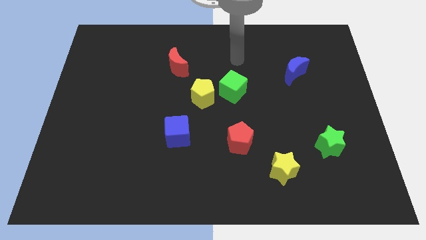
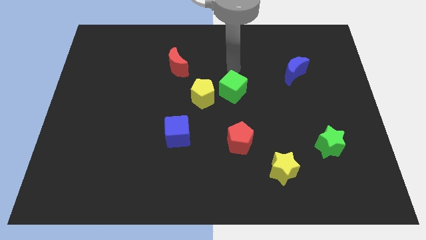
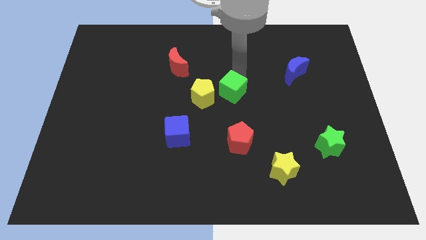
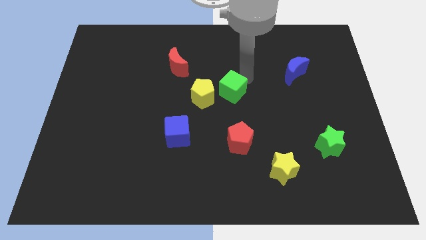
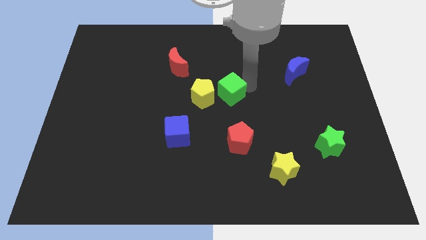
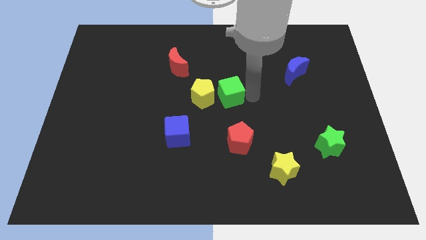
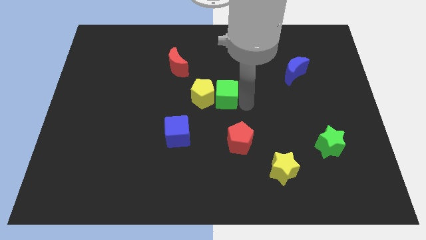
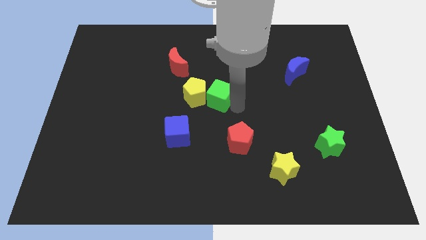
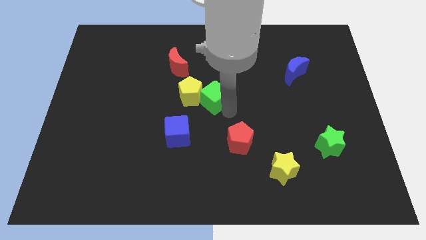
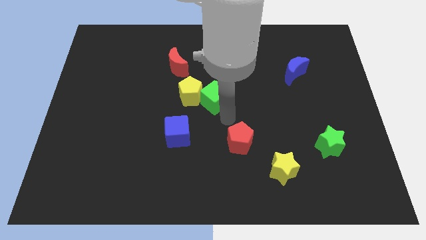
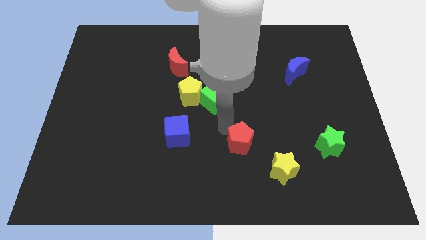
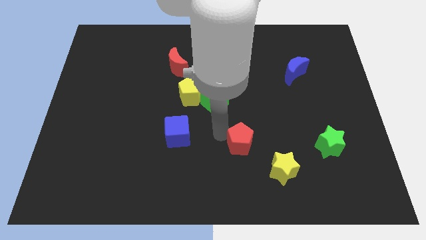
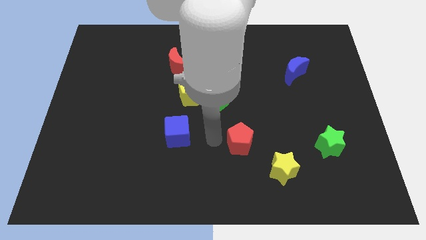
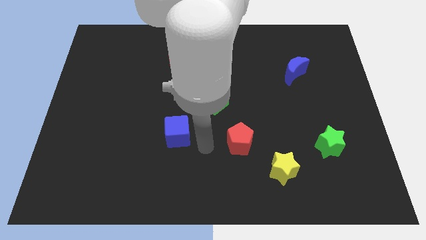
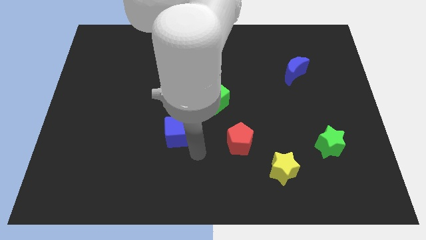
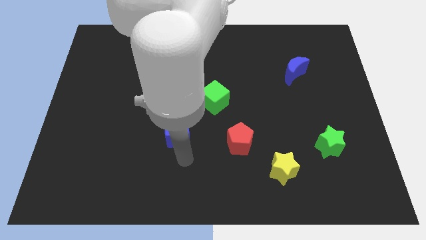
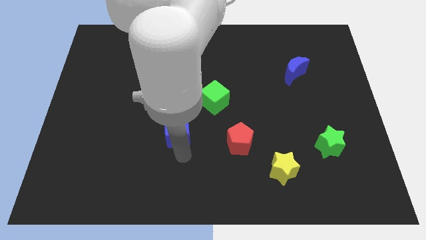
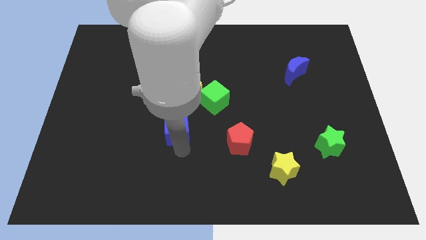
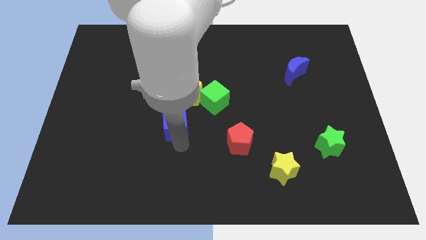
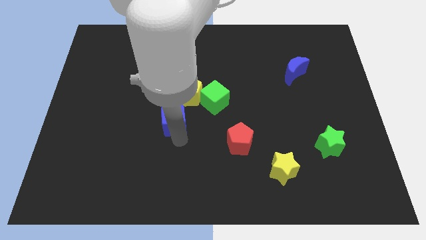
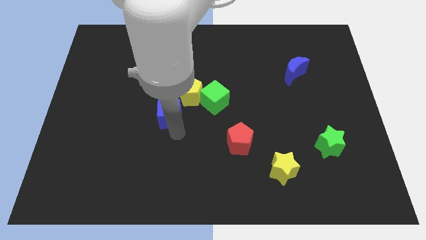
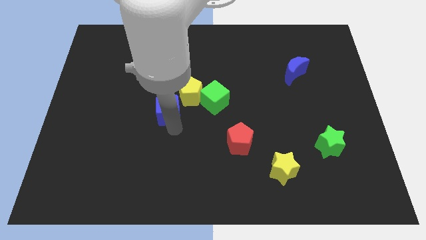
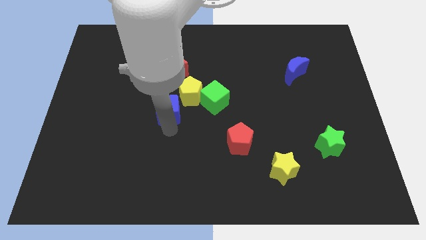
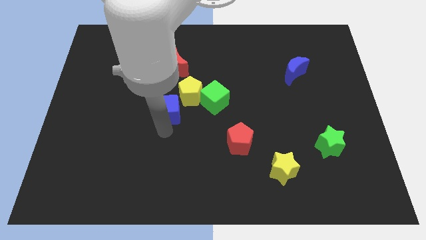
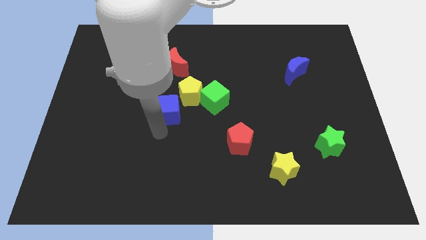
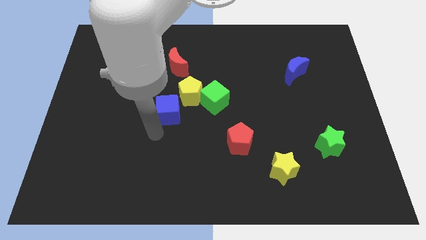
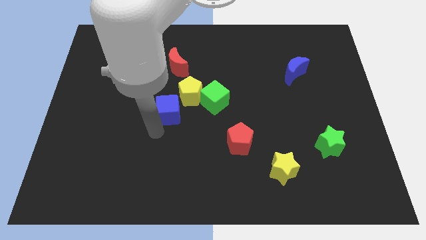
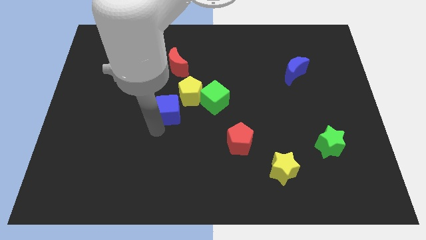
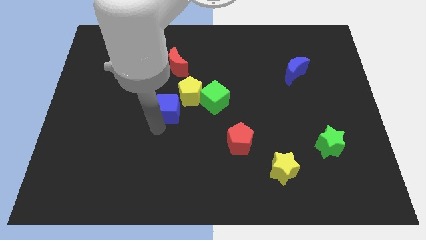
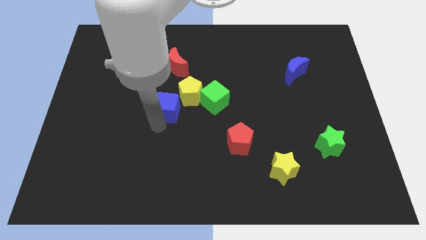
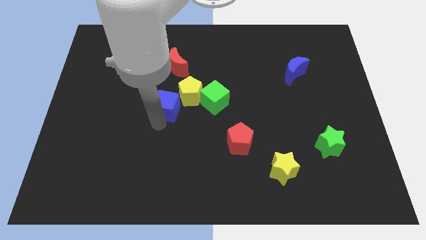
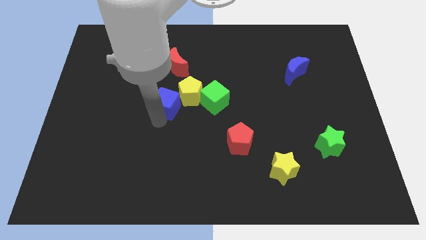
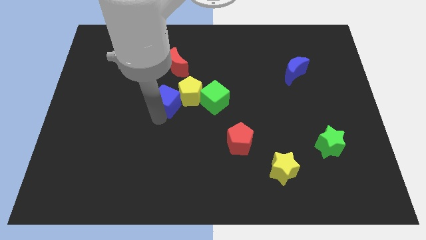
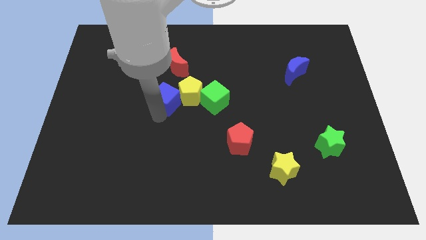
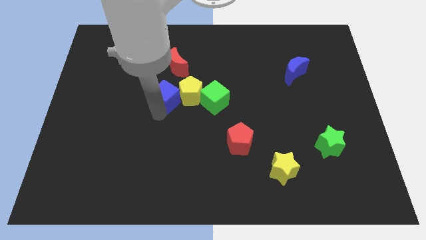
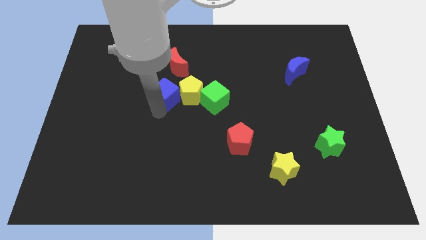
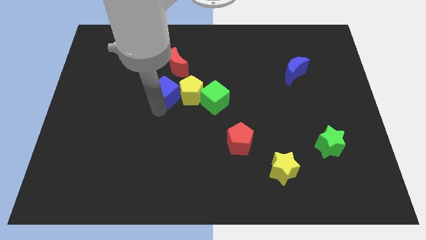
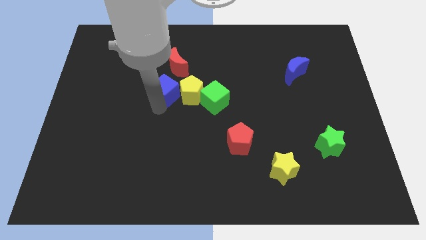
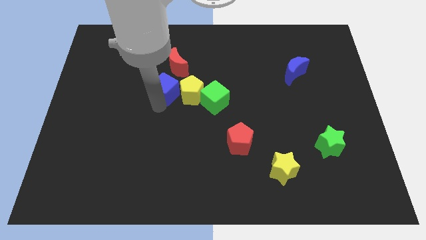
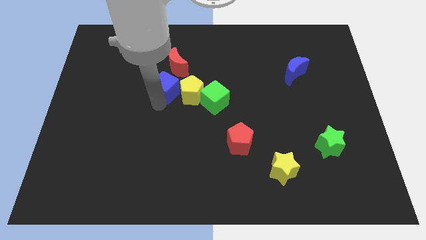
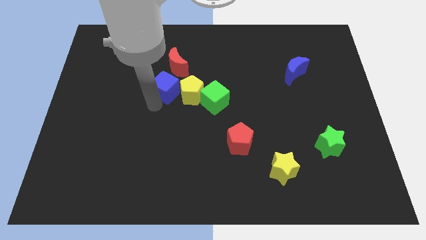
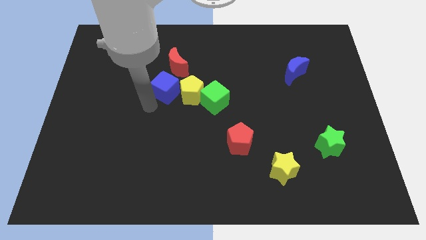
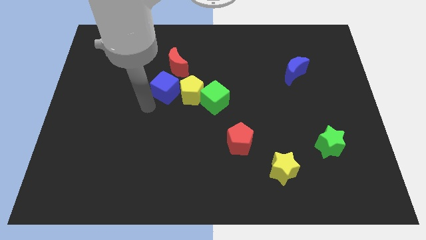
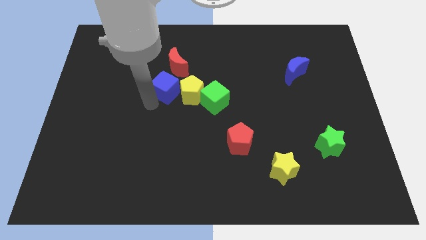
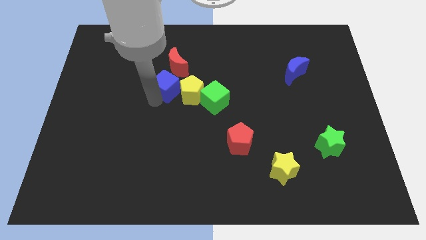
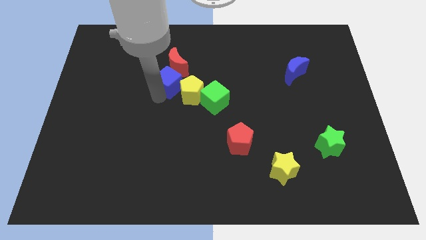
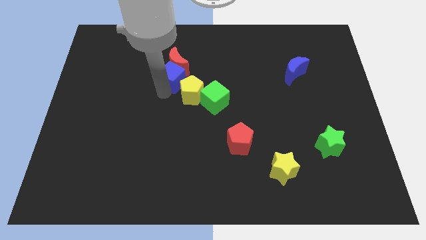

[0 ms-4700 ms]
move the blue cube next to the red moon

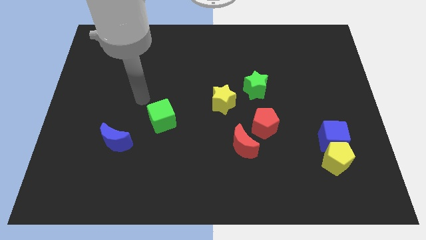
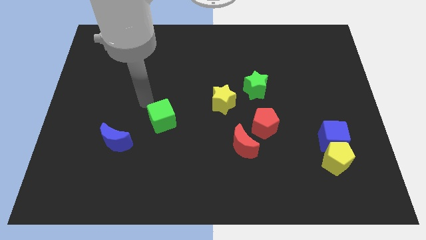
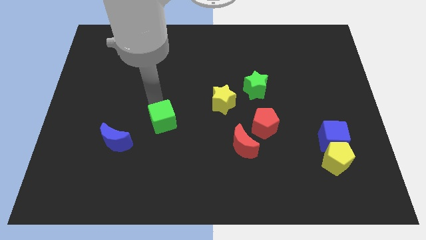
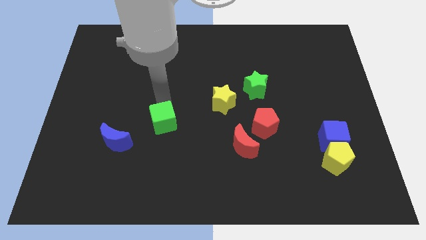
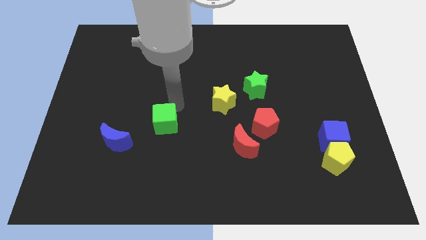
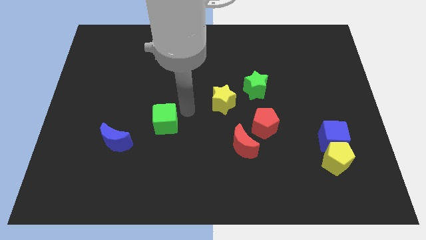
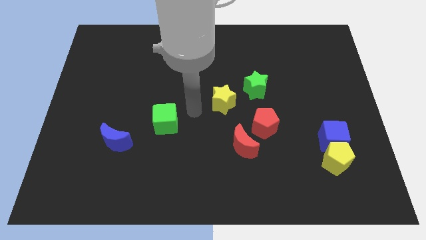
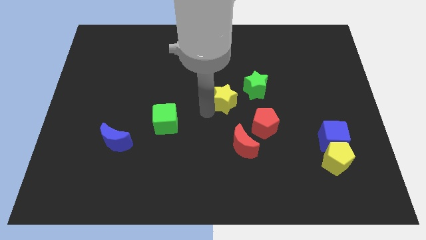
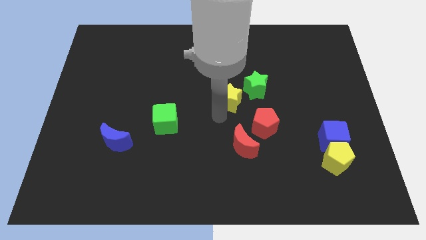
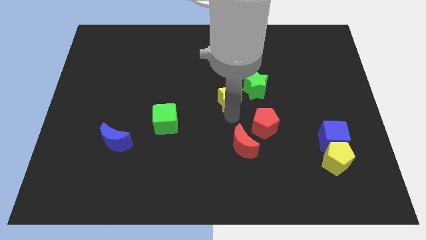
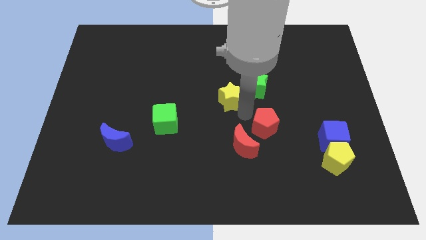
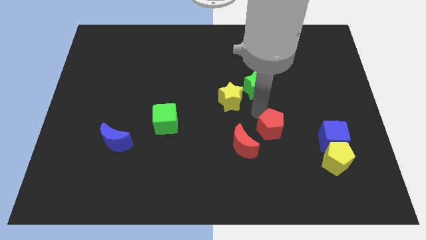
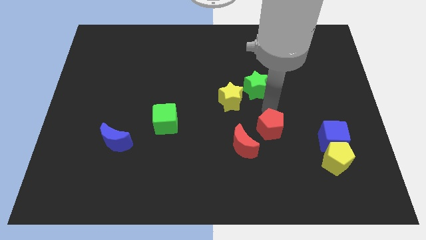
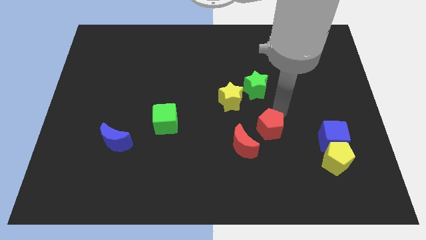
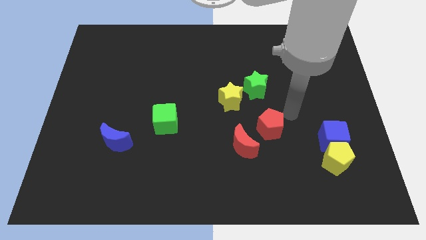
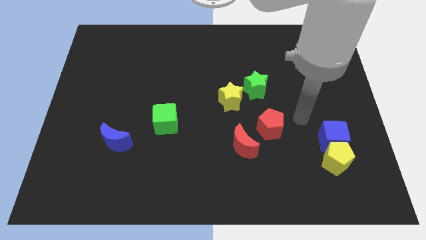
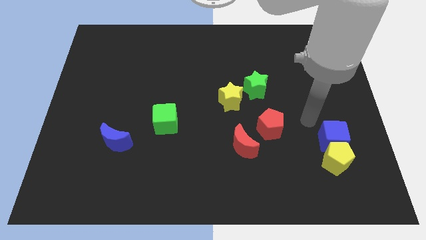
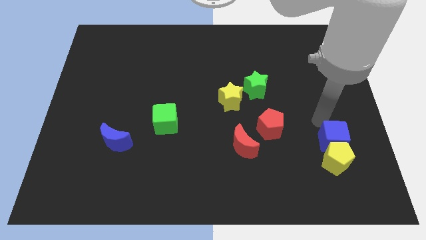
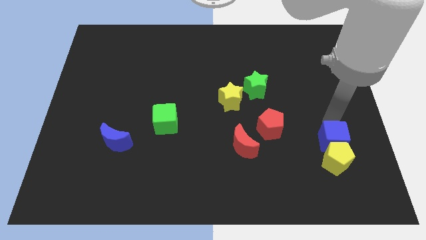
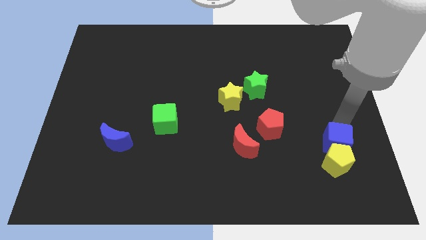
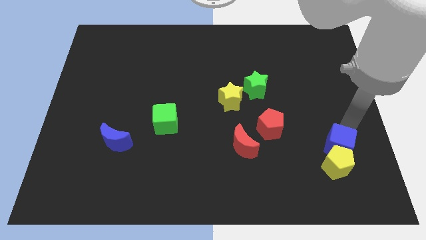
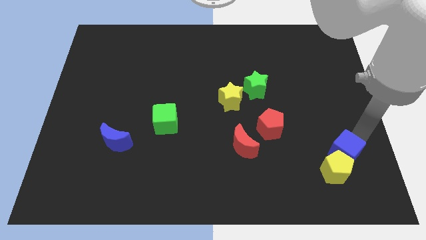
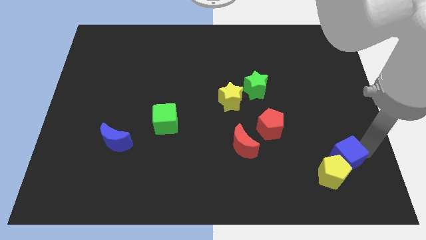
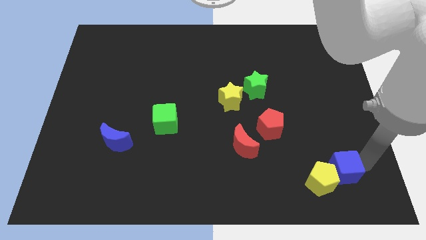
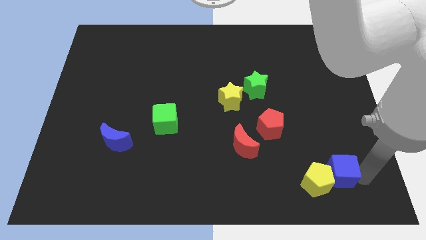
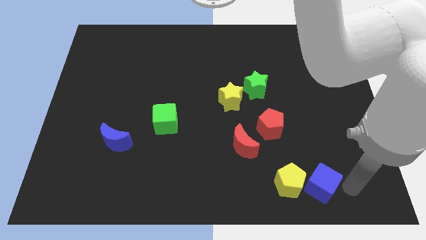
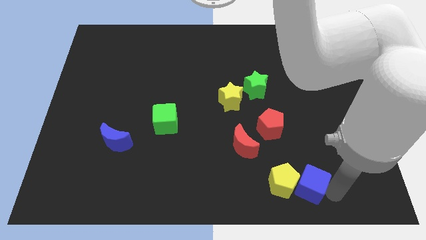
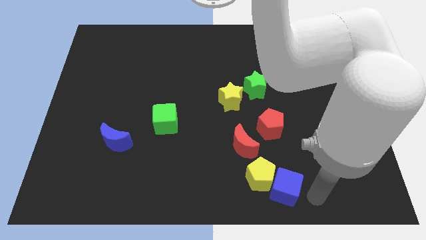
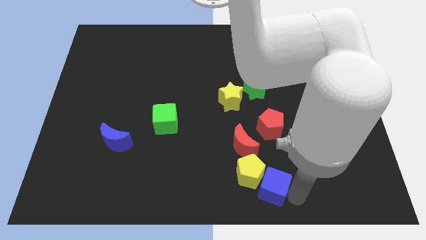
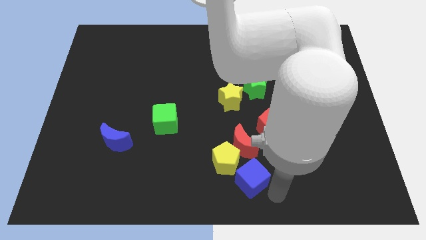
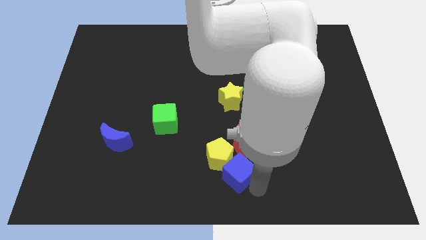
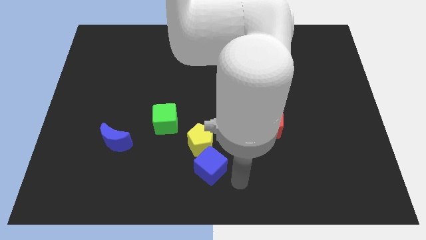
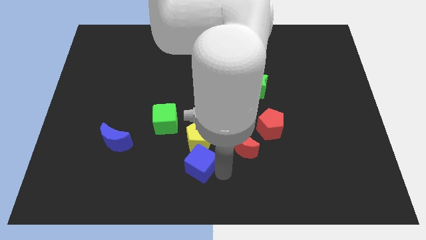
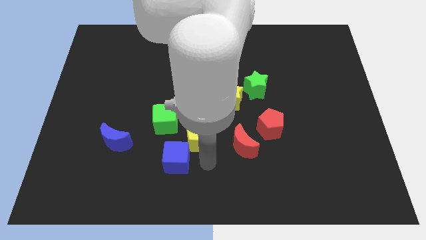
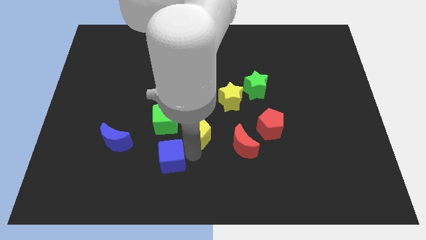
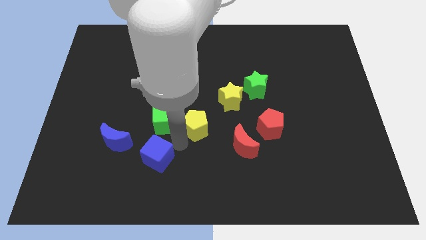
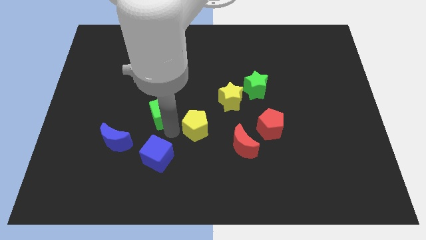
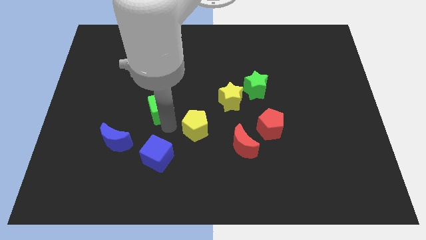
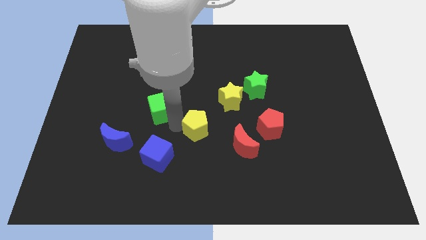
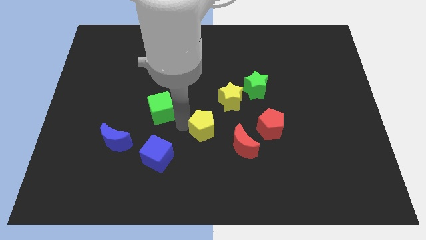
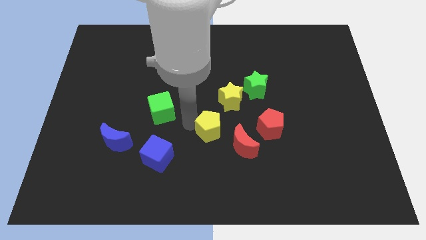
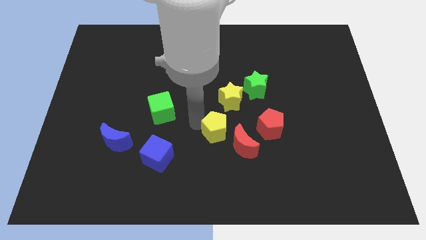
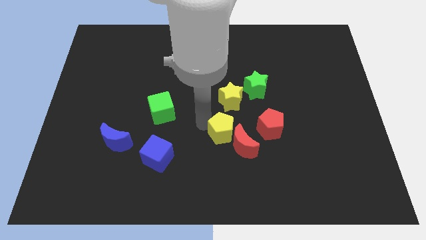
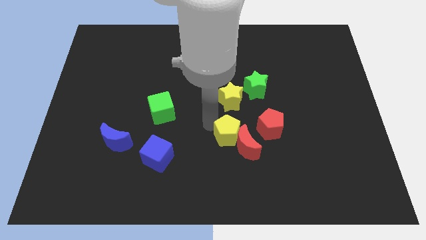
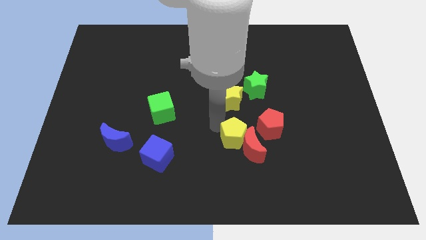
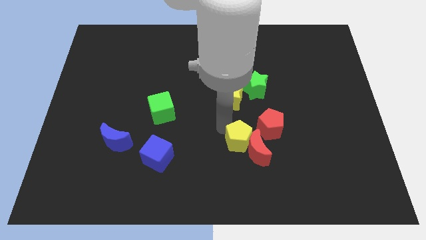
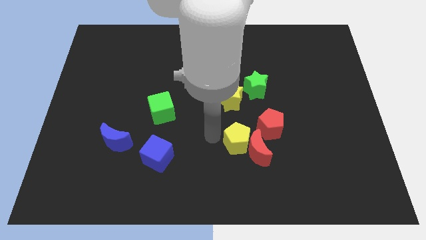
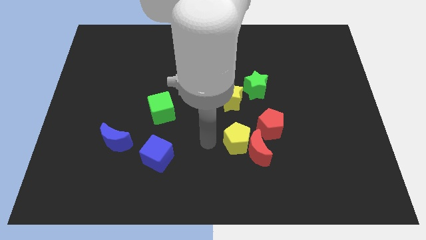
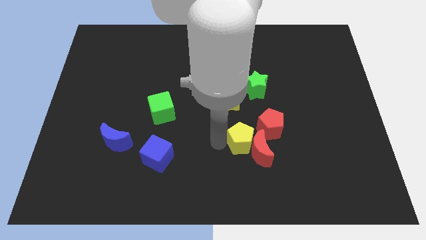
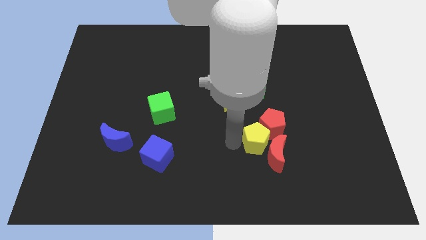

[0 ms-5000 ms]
put the yellow pentagon next to the red pentagon
